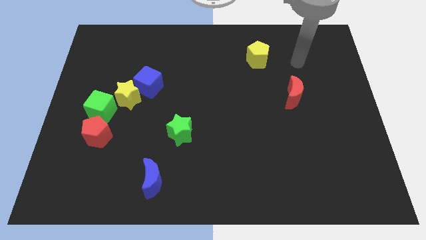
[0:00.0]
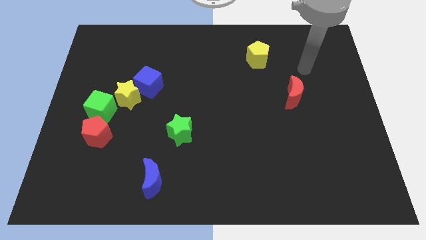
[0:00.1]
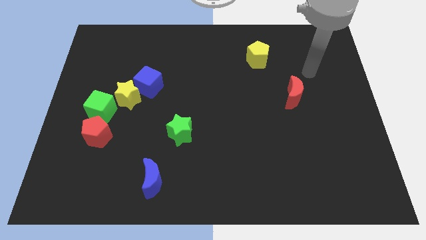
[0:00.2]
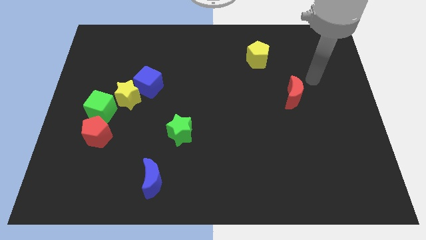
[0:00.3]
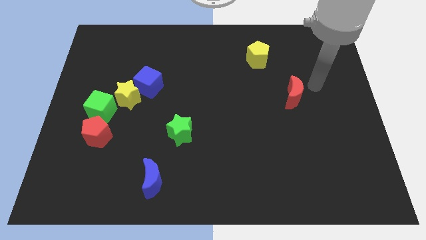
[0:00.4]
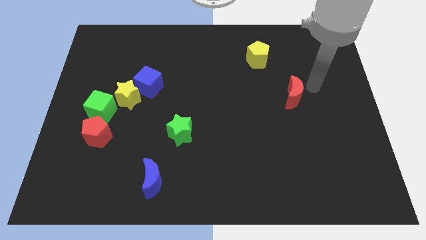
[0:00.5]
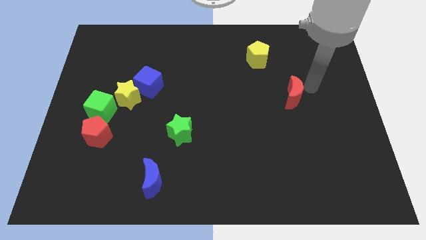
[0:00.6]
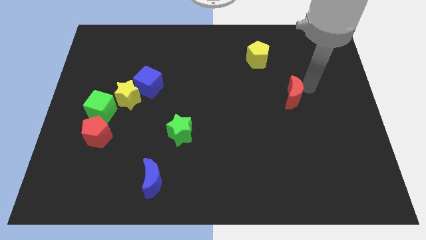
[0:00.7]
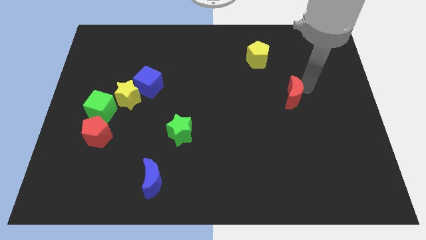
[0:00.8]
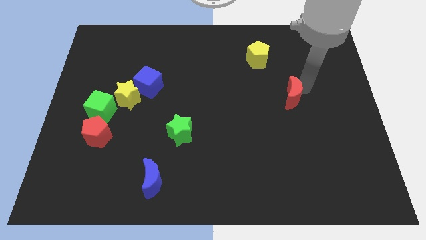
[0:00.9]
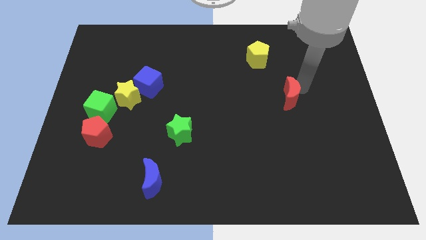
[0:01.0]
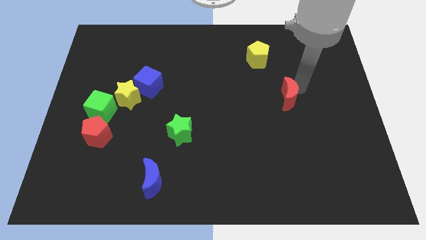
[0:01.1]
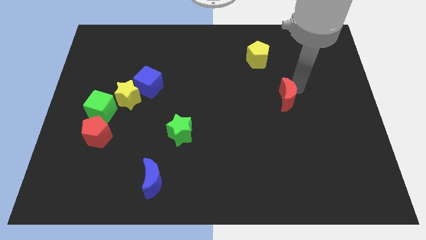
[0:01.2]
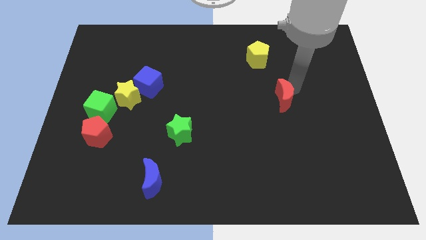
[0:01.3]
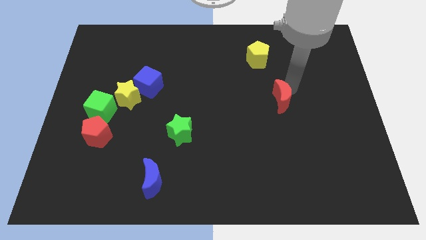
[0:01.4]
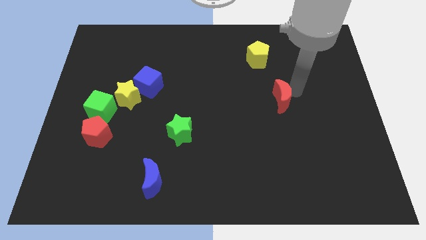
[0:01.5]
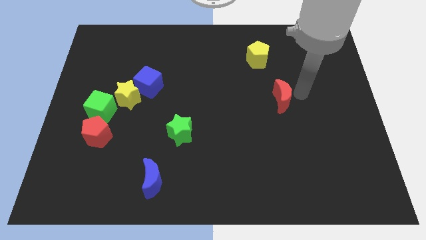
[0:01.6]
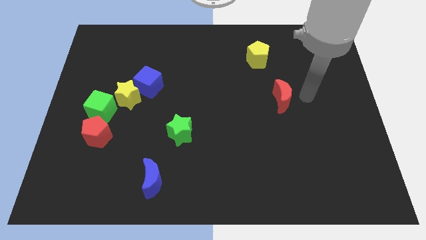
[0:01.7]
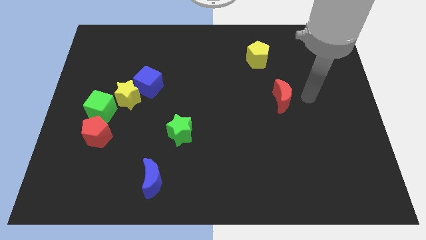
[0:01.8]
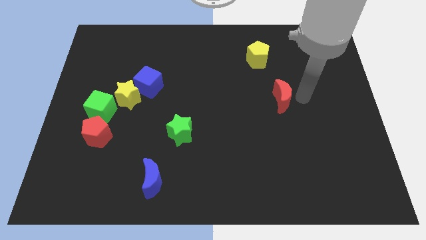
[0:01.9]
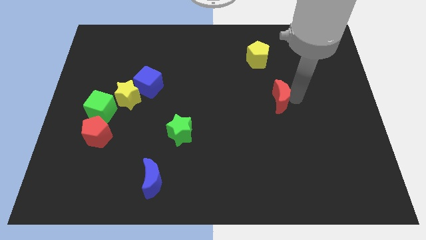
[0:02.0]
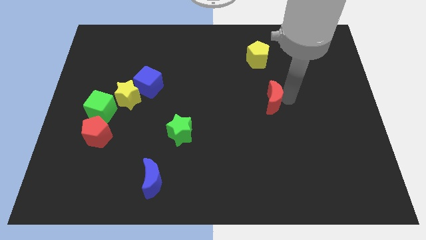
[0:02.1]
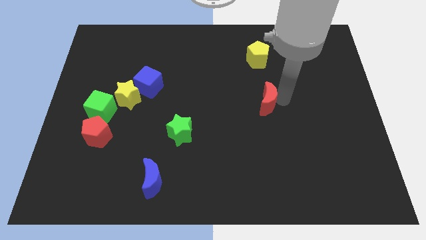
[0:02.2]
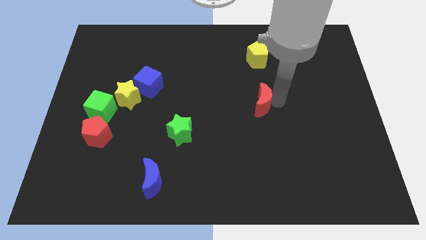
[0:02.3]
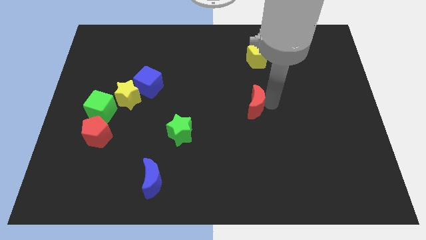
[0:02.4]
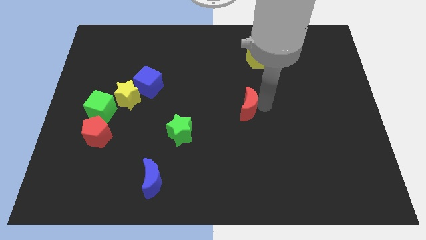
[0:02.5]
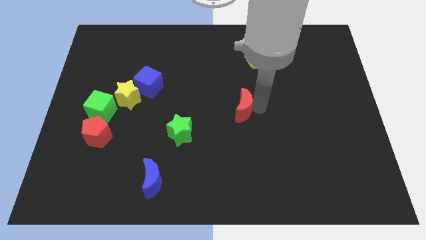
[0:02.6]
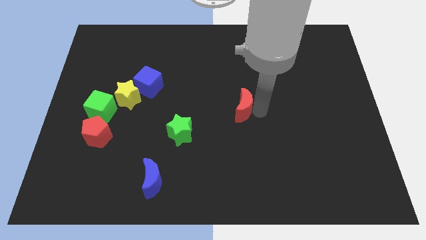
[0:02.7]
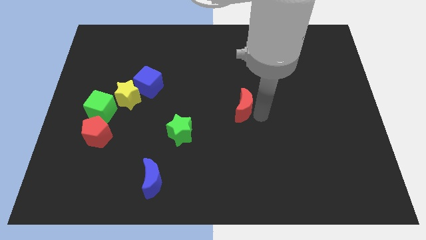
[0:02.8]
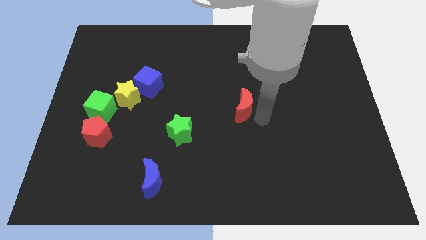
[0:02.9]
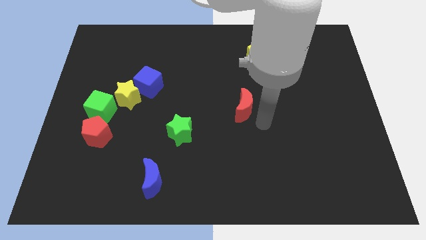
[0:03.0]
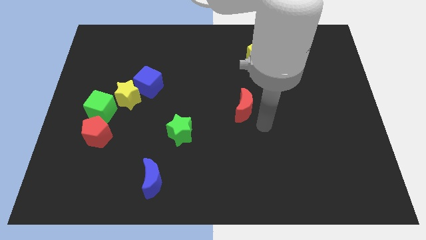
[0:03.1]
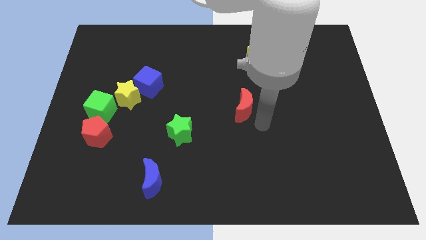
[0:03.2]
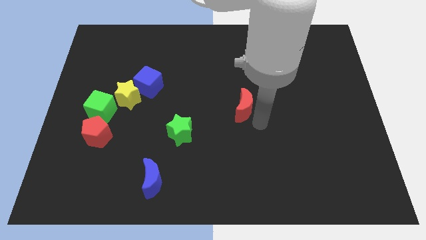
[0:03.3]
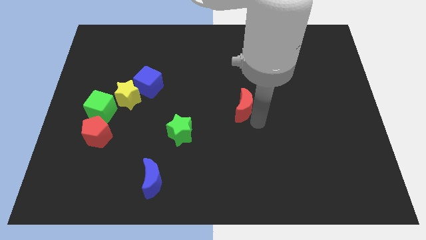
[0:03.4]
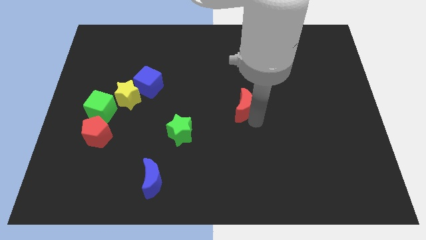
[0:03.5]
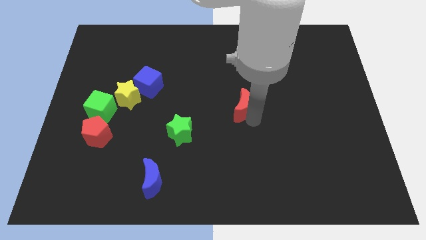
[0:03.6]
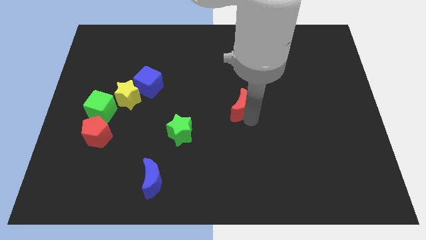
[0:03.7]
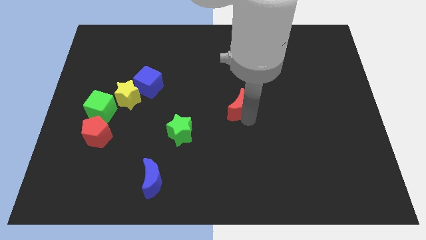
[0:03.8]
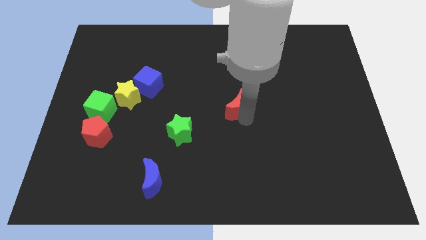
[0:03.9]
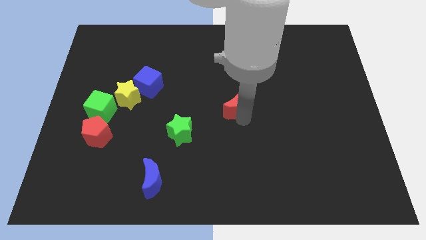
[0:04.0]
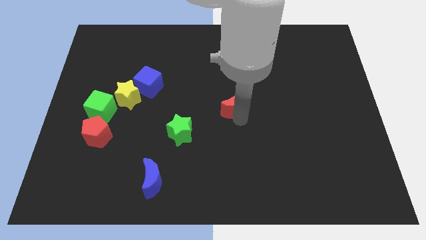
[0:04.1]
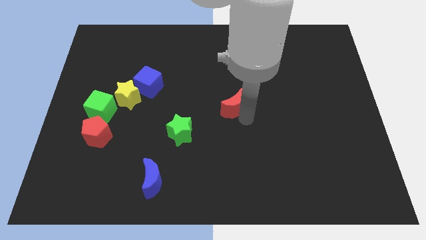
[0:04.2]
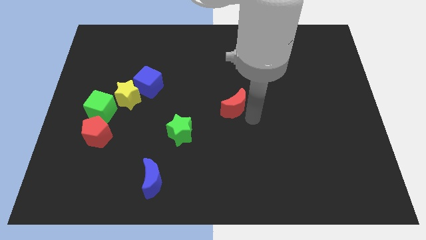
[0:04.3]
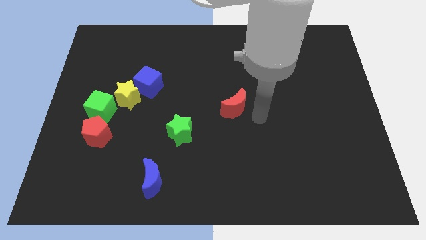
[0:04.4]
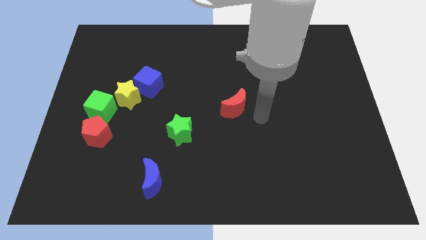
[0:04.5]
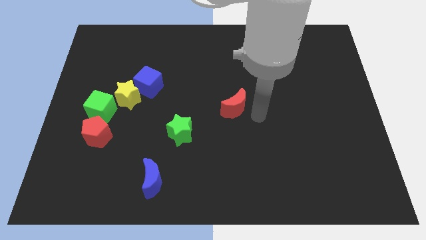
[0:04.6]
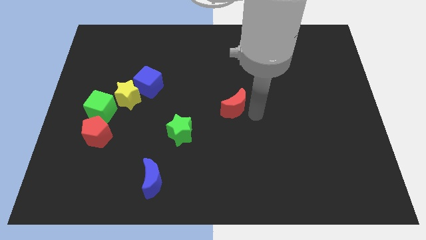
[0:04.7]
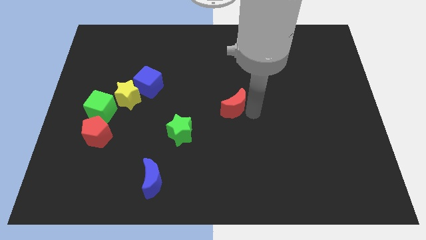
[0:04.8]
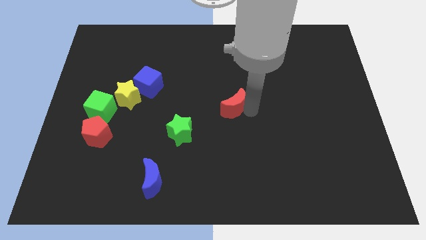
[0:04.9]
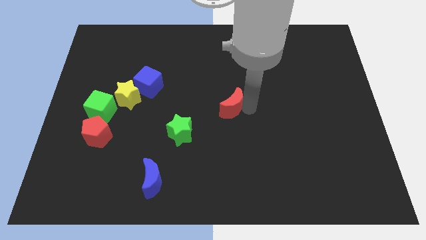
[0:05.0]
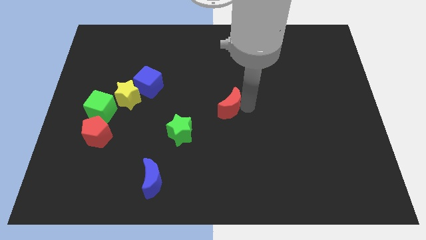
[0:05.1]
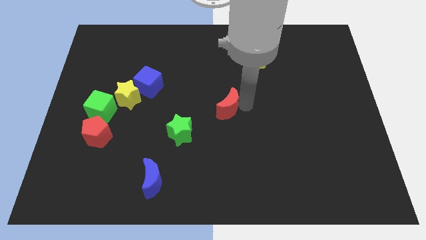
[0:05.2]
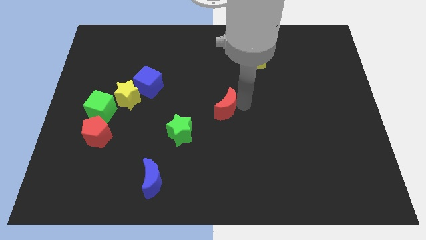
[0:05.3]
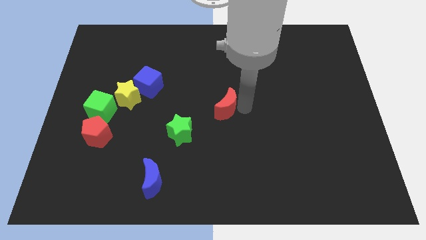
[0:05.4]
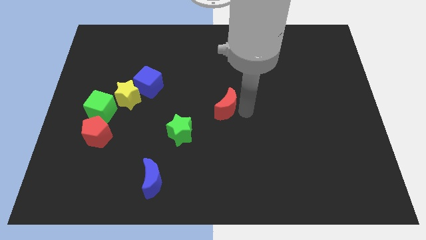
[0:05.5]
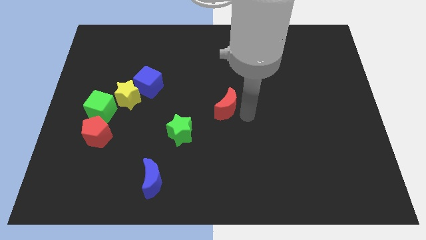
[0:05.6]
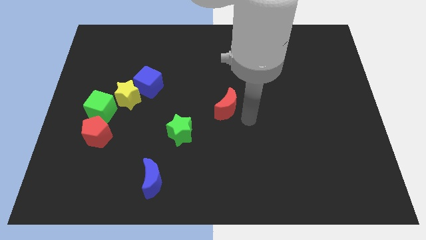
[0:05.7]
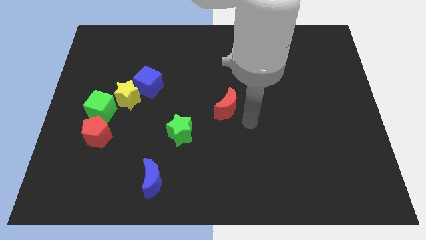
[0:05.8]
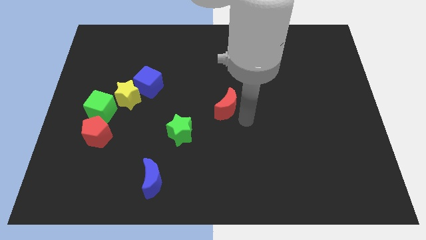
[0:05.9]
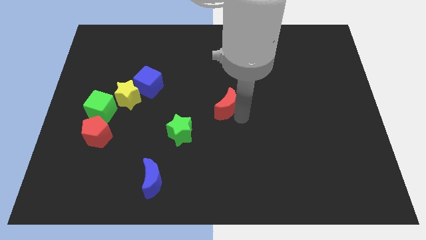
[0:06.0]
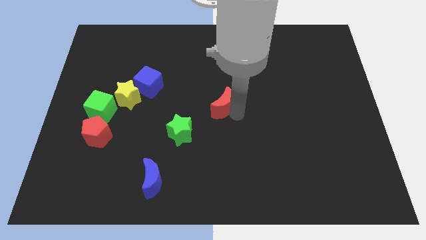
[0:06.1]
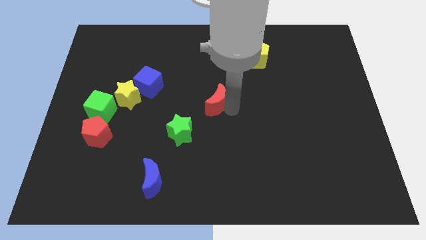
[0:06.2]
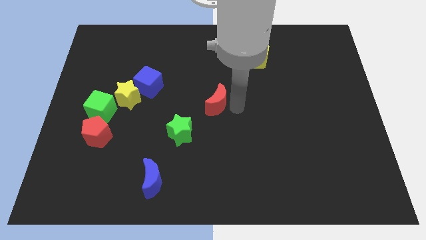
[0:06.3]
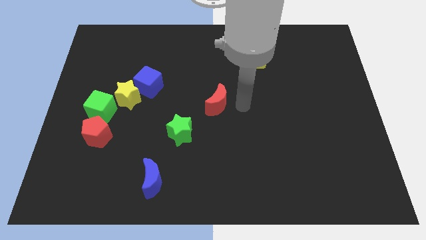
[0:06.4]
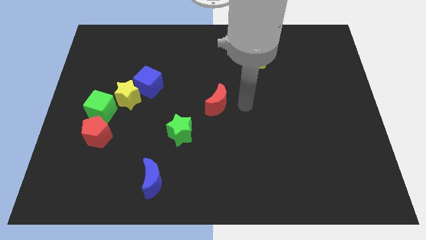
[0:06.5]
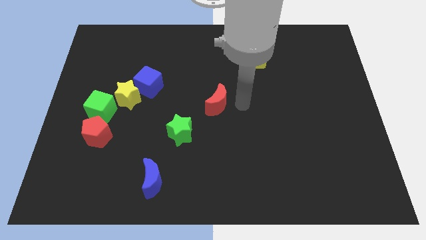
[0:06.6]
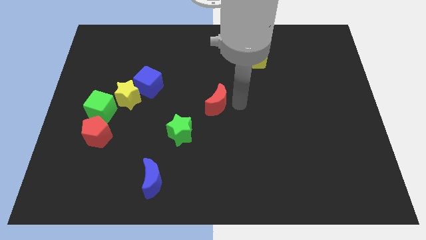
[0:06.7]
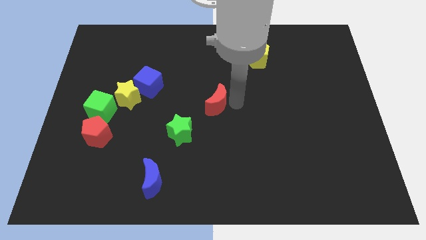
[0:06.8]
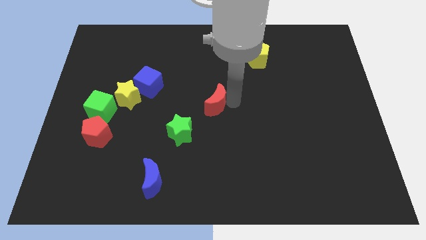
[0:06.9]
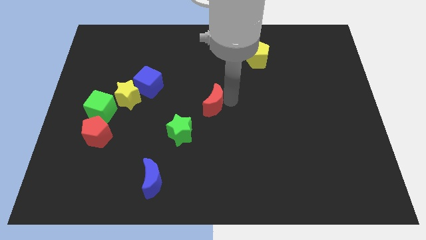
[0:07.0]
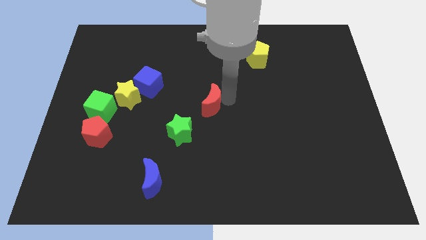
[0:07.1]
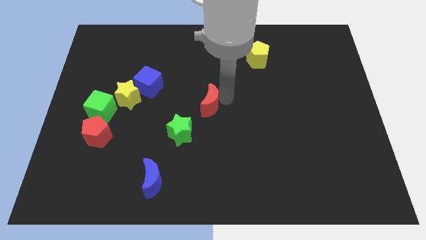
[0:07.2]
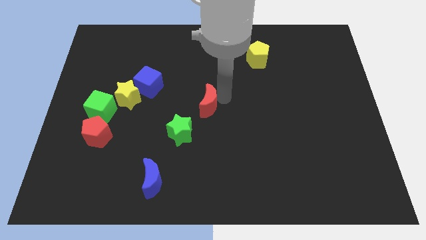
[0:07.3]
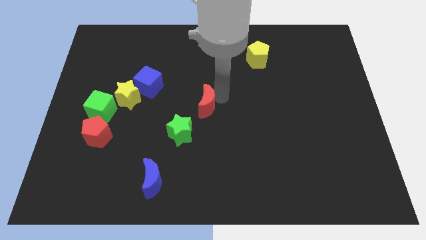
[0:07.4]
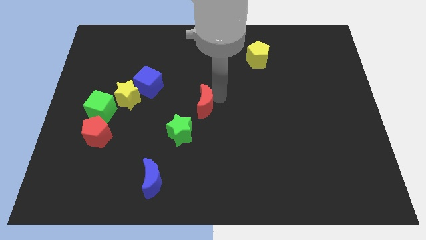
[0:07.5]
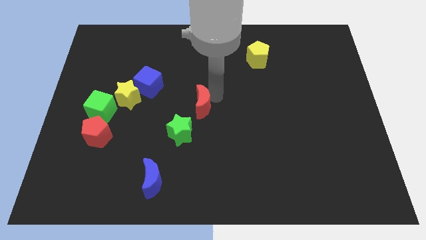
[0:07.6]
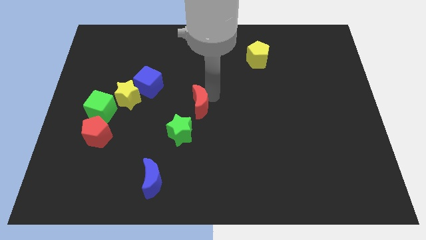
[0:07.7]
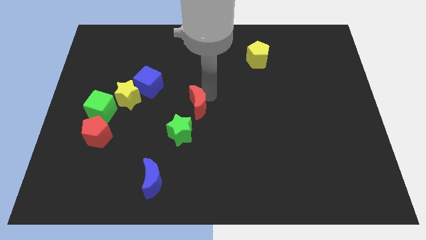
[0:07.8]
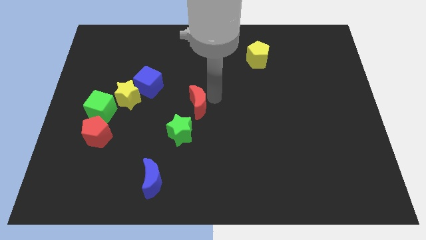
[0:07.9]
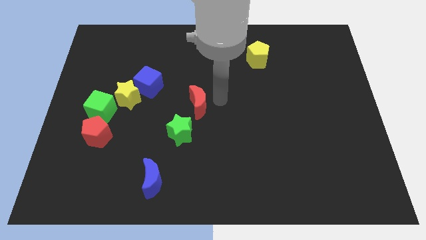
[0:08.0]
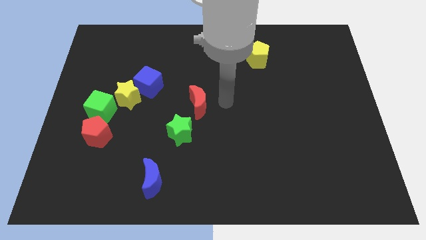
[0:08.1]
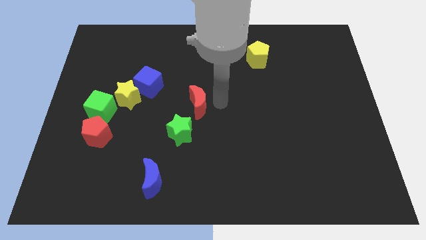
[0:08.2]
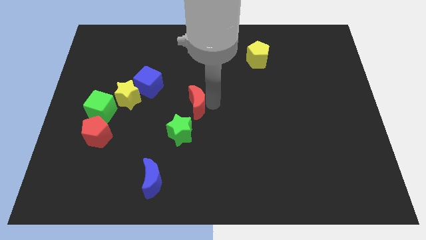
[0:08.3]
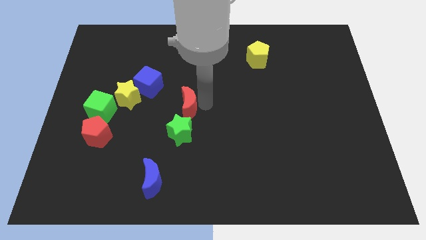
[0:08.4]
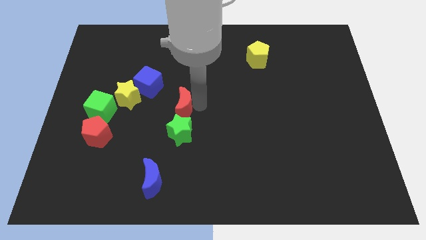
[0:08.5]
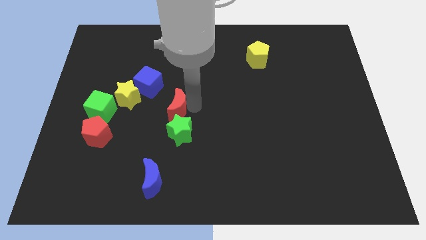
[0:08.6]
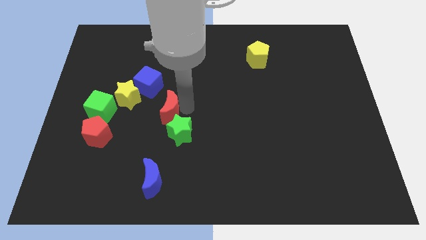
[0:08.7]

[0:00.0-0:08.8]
put the red moon to the right of the green cube
